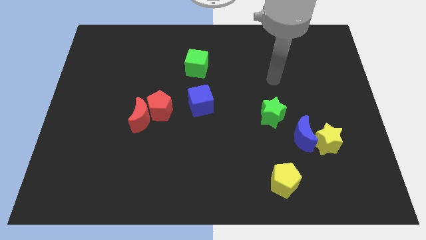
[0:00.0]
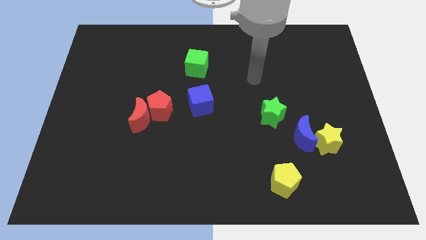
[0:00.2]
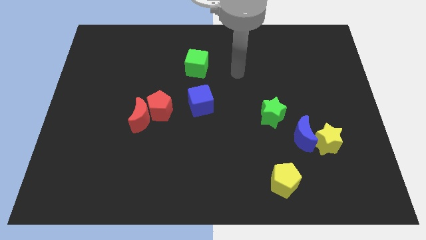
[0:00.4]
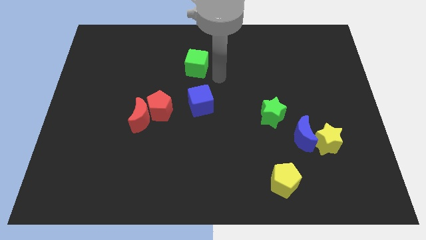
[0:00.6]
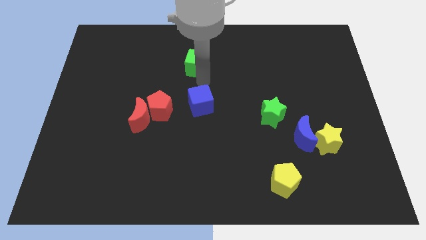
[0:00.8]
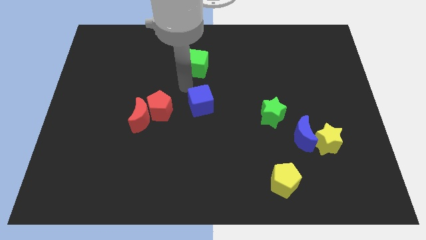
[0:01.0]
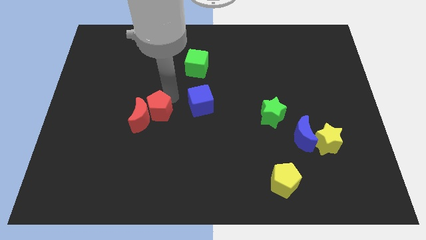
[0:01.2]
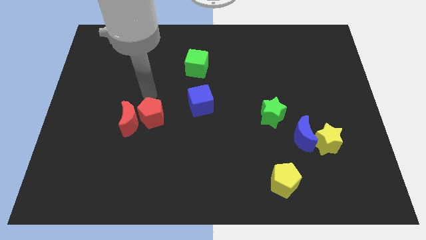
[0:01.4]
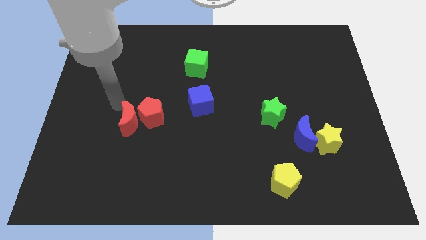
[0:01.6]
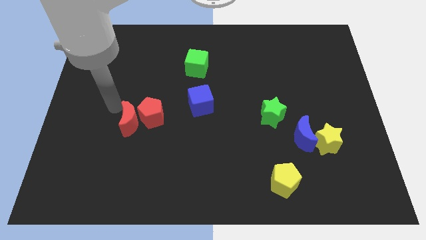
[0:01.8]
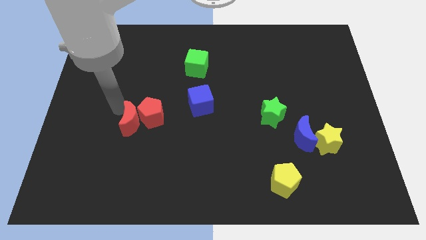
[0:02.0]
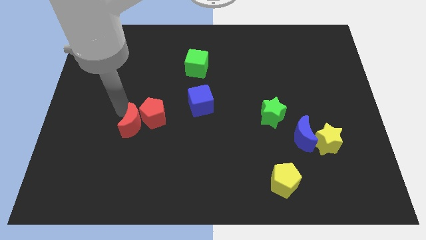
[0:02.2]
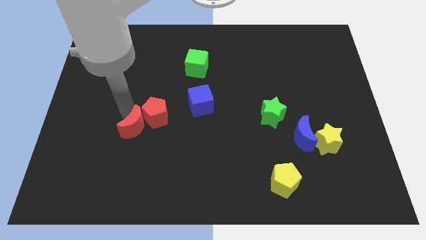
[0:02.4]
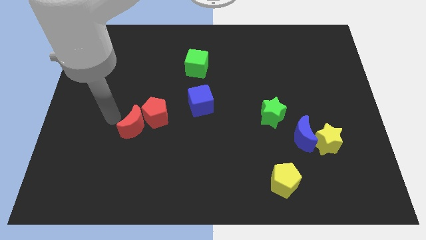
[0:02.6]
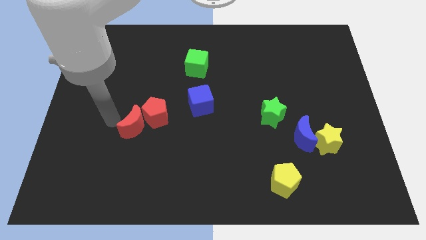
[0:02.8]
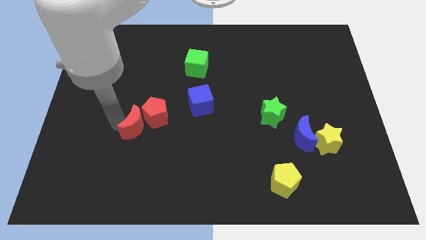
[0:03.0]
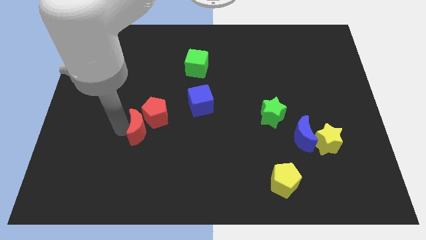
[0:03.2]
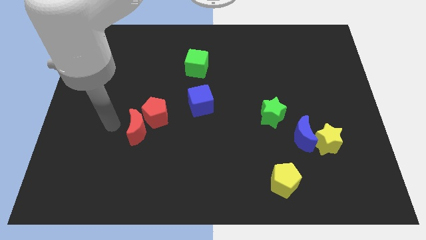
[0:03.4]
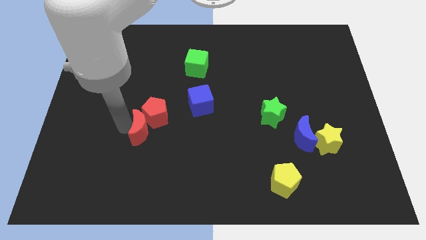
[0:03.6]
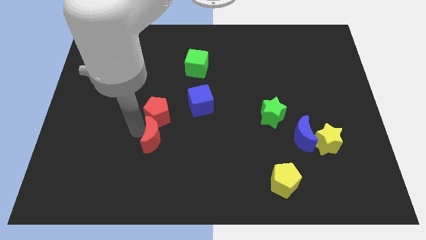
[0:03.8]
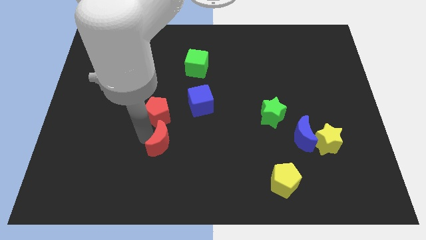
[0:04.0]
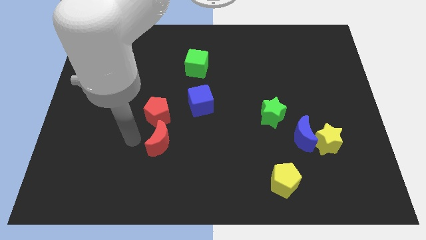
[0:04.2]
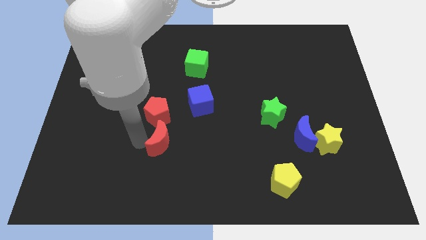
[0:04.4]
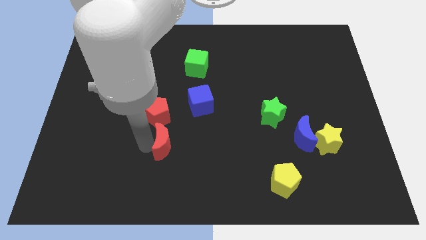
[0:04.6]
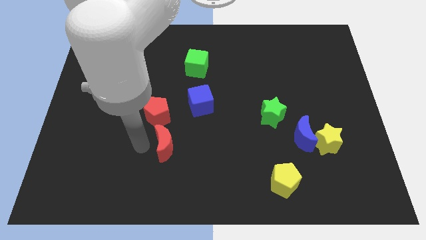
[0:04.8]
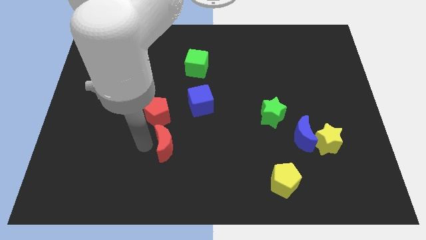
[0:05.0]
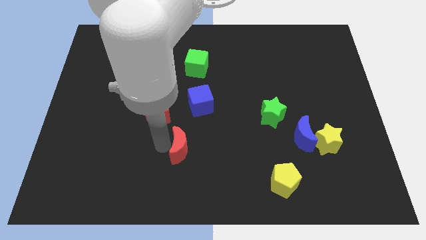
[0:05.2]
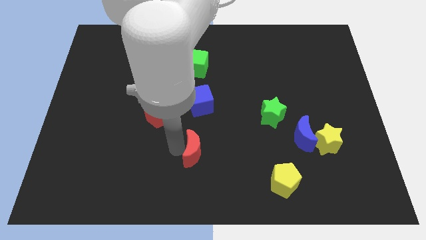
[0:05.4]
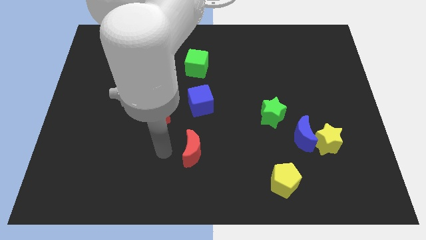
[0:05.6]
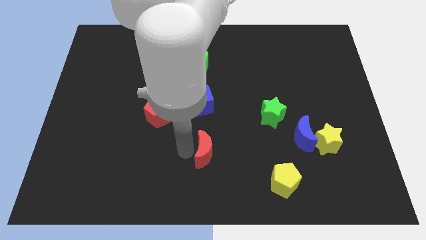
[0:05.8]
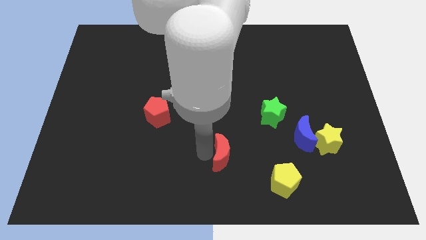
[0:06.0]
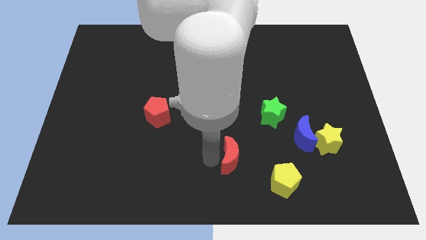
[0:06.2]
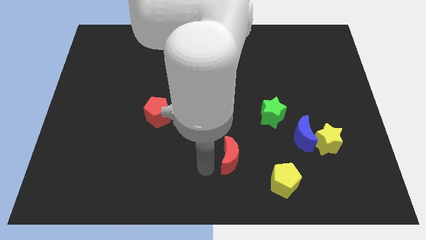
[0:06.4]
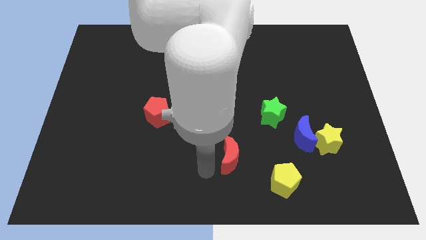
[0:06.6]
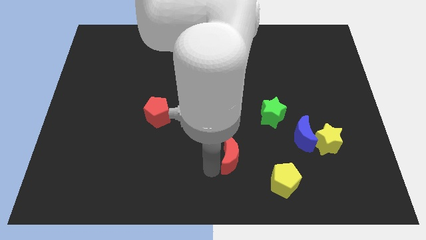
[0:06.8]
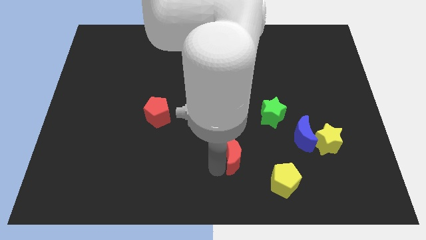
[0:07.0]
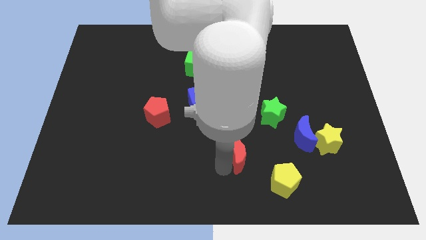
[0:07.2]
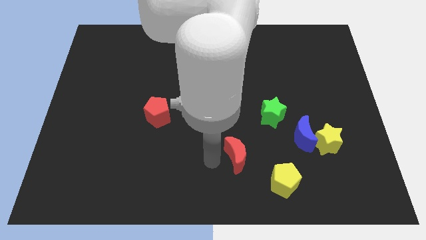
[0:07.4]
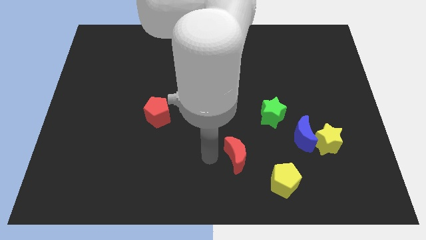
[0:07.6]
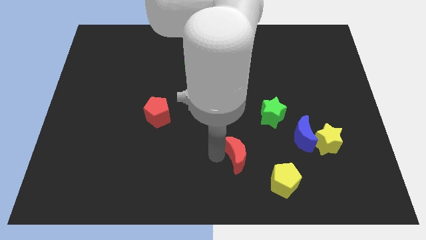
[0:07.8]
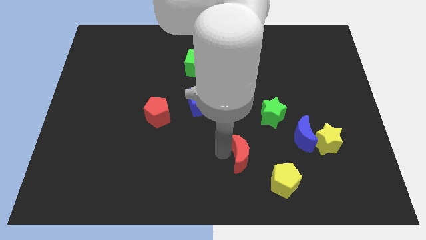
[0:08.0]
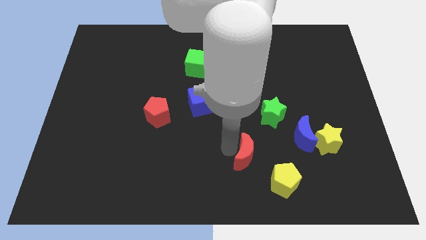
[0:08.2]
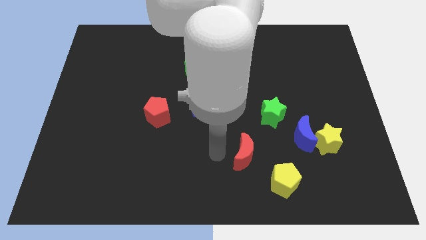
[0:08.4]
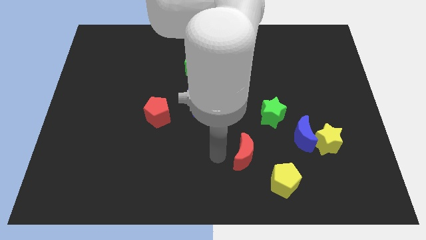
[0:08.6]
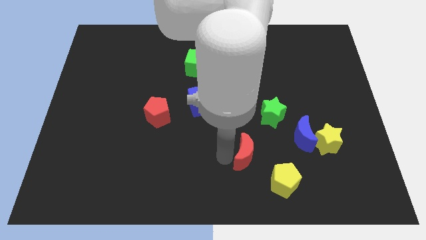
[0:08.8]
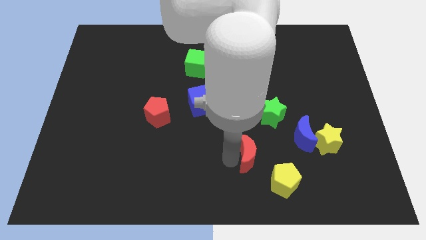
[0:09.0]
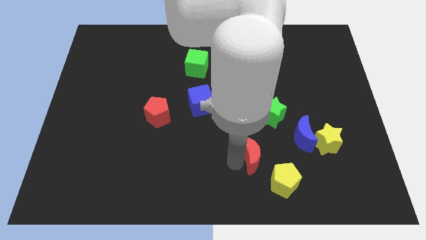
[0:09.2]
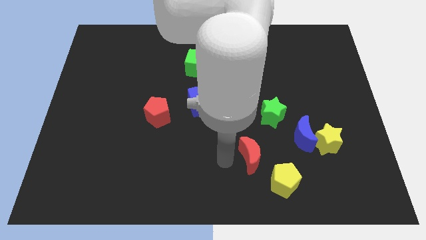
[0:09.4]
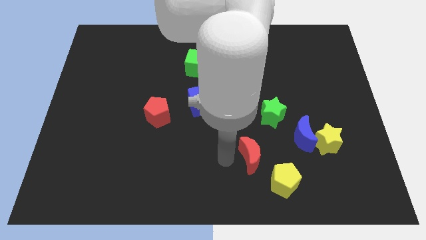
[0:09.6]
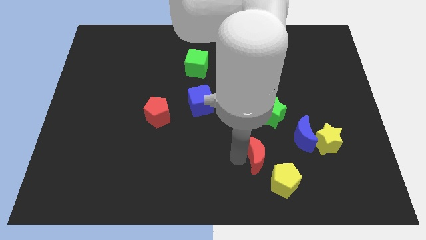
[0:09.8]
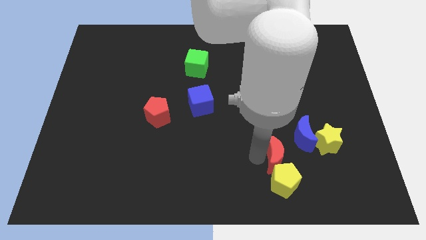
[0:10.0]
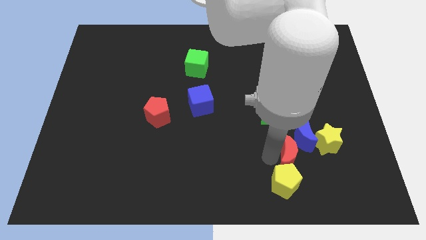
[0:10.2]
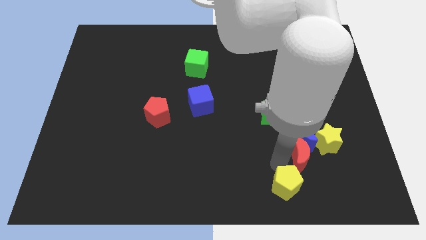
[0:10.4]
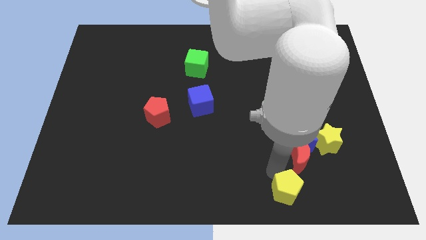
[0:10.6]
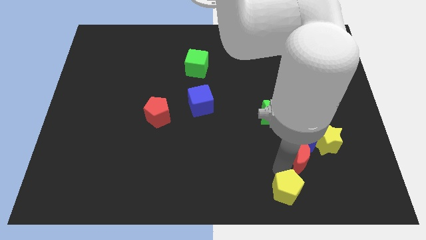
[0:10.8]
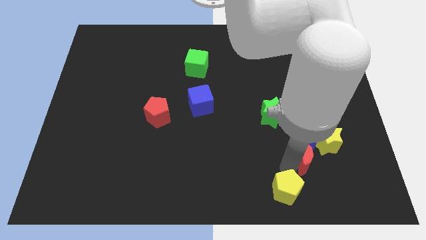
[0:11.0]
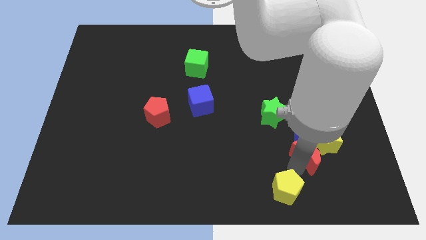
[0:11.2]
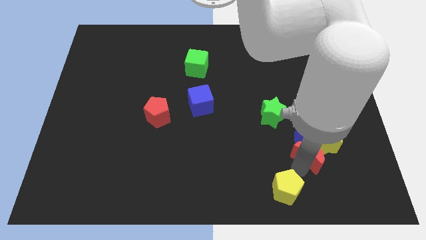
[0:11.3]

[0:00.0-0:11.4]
move the red moon next to the yellow star

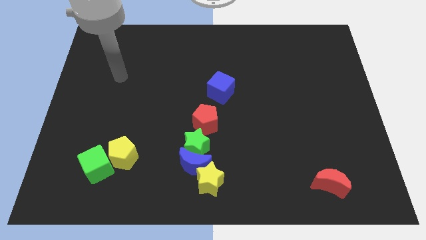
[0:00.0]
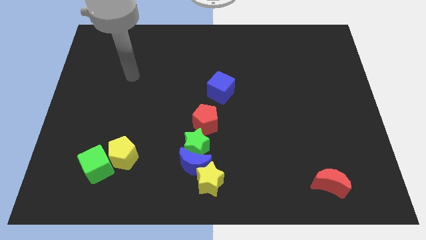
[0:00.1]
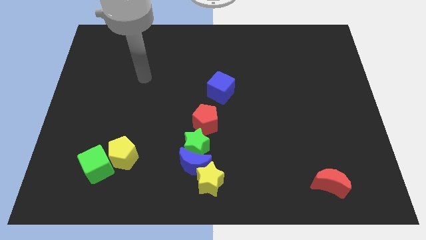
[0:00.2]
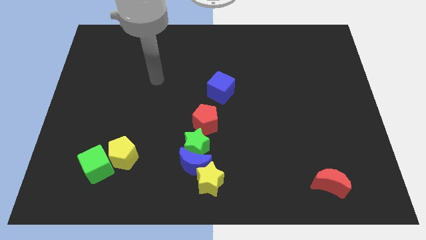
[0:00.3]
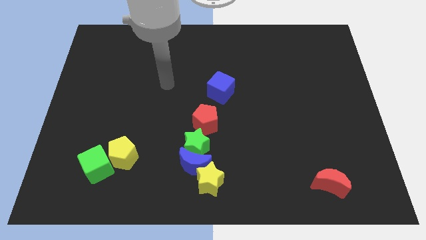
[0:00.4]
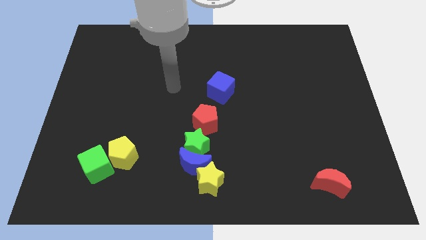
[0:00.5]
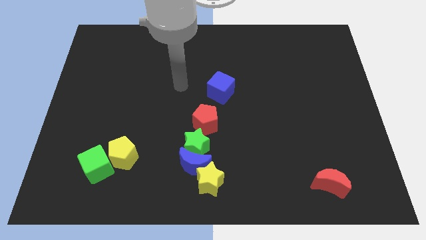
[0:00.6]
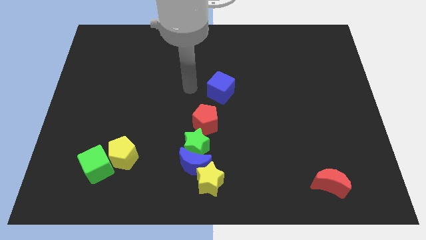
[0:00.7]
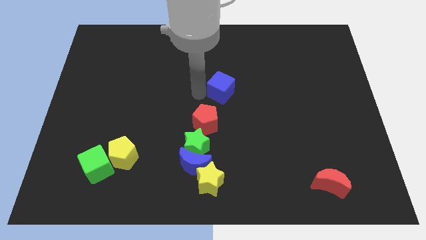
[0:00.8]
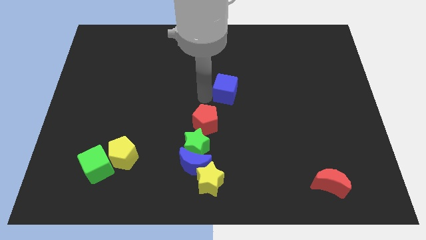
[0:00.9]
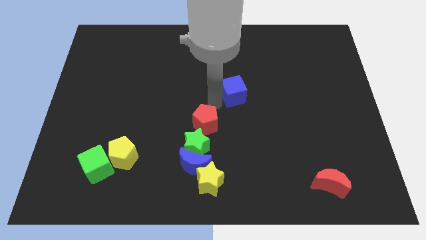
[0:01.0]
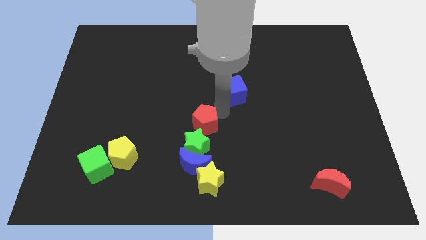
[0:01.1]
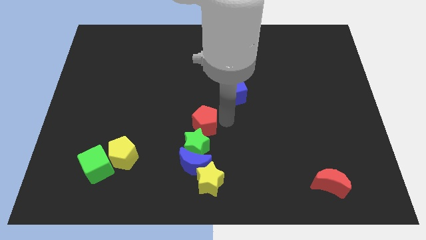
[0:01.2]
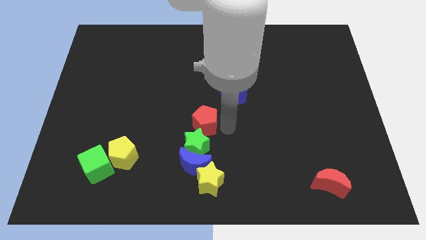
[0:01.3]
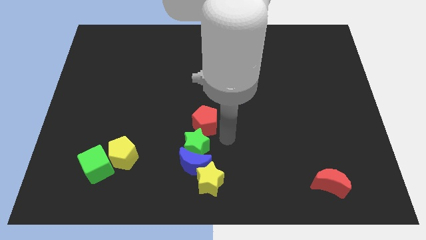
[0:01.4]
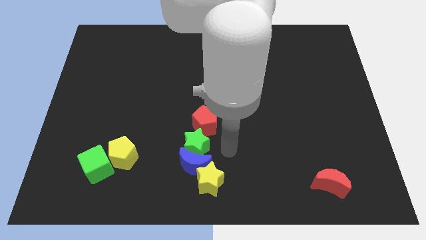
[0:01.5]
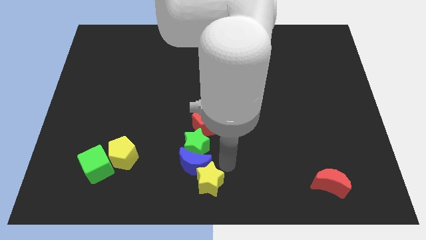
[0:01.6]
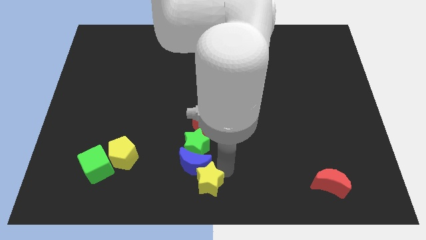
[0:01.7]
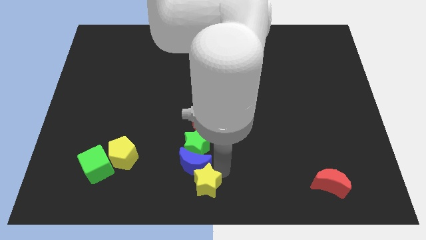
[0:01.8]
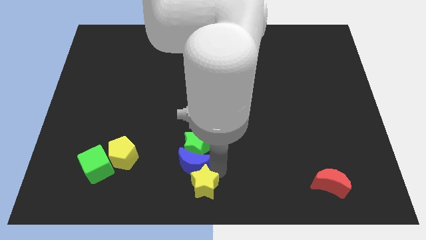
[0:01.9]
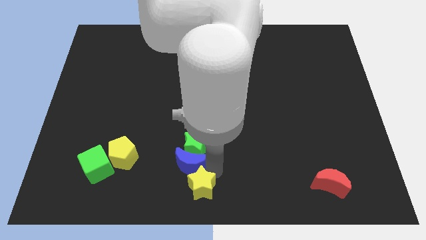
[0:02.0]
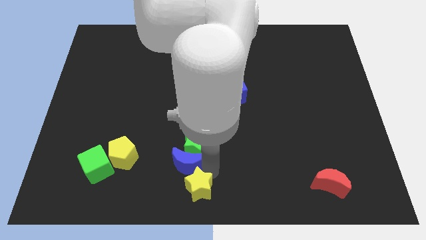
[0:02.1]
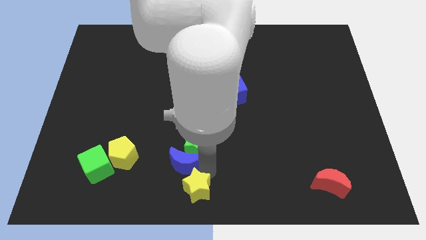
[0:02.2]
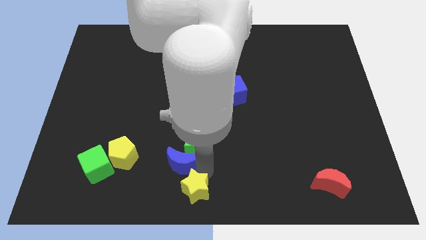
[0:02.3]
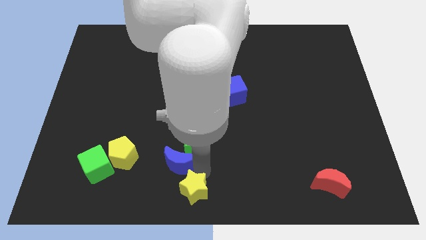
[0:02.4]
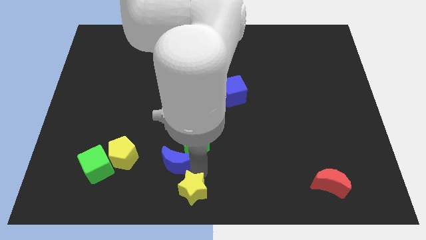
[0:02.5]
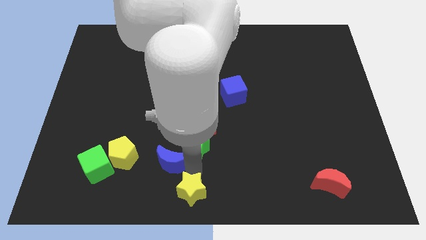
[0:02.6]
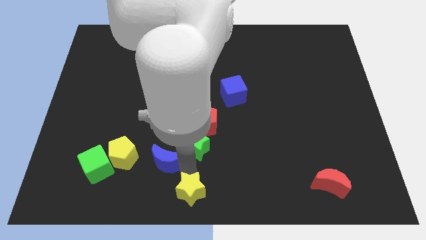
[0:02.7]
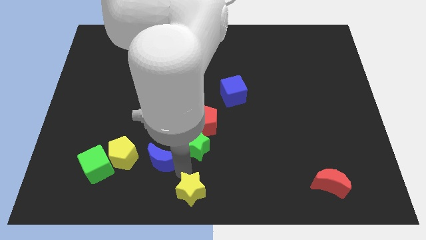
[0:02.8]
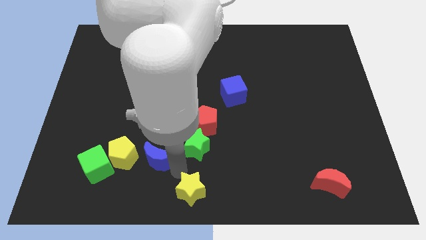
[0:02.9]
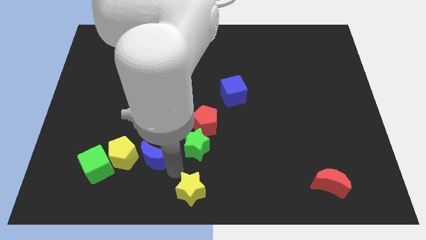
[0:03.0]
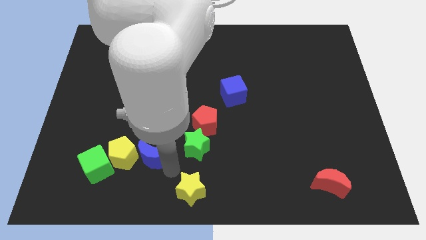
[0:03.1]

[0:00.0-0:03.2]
move the blue moon next to the yellow pentagon
